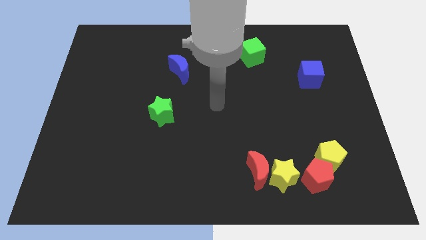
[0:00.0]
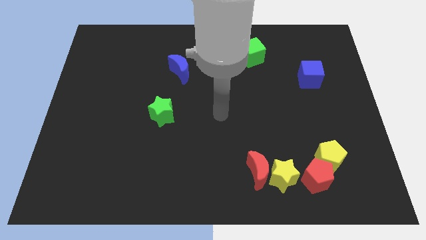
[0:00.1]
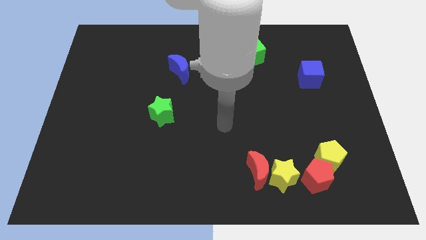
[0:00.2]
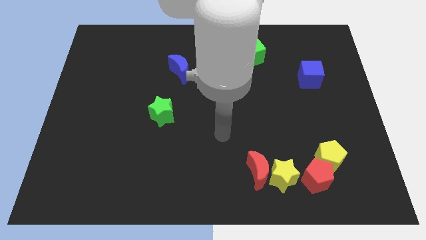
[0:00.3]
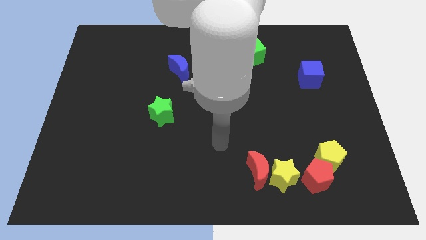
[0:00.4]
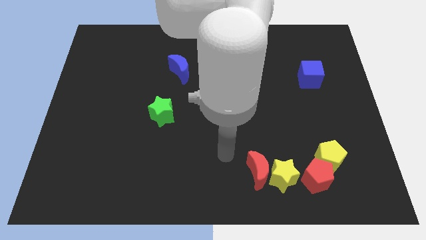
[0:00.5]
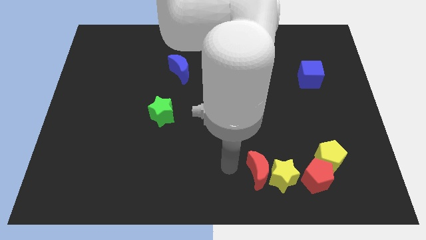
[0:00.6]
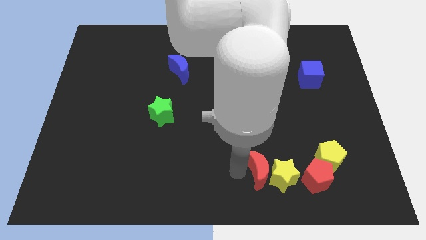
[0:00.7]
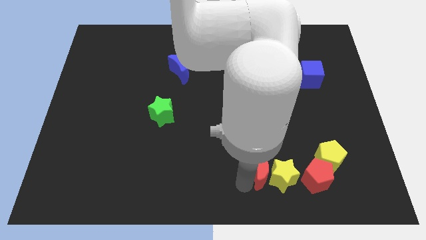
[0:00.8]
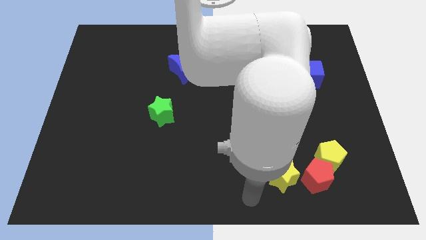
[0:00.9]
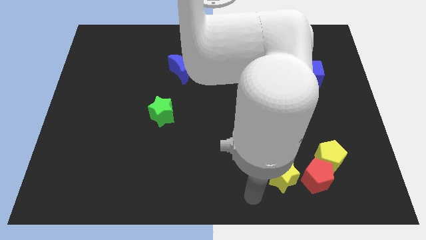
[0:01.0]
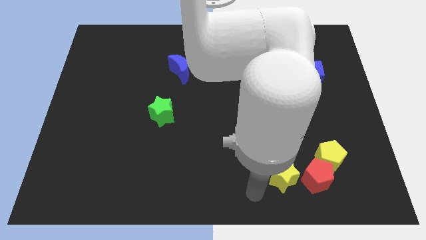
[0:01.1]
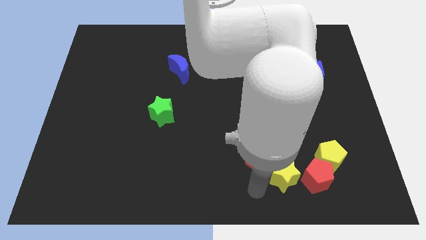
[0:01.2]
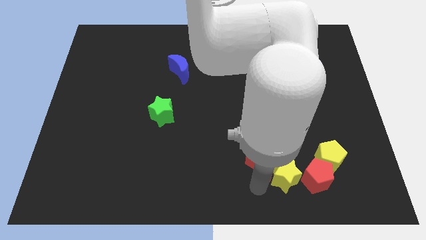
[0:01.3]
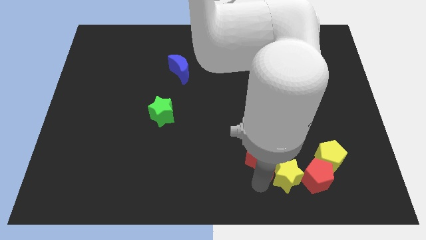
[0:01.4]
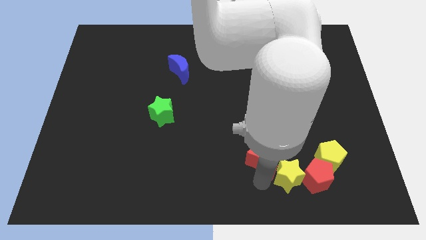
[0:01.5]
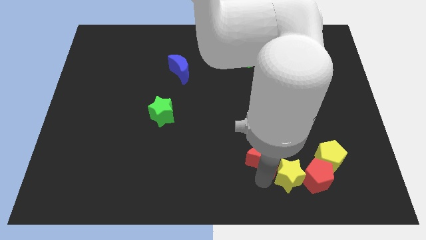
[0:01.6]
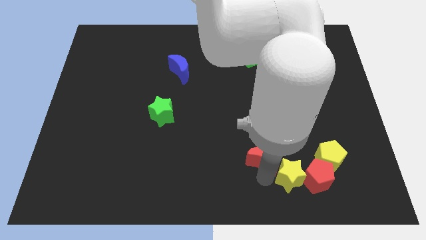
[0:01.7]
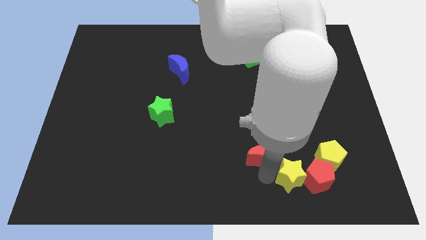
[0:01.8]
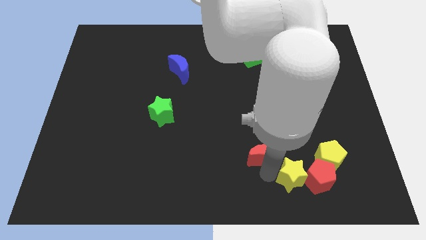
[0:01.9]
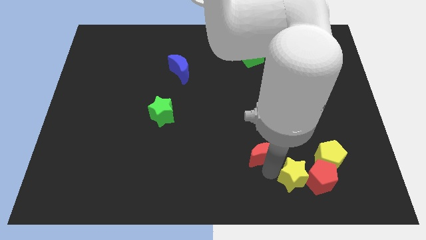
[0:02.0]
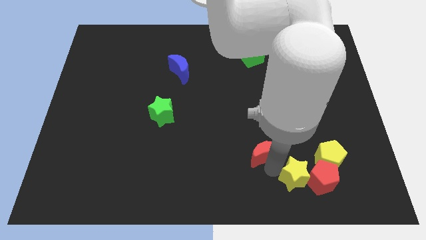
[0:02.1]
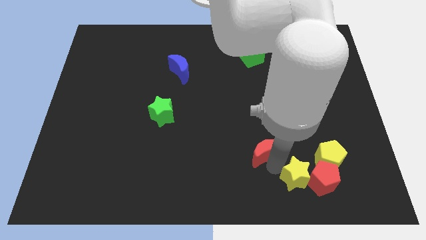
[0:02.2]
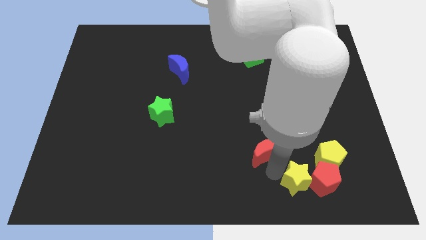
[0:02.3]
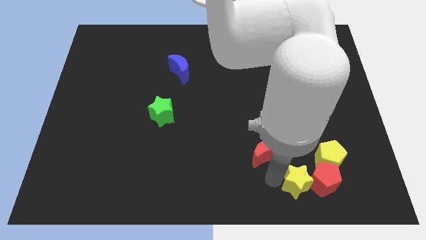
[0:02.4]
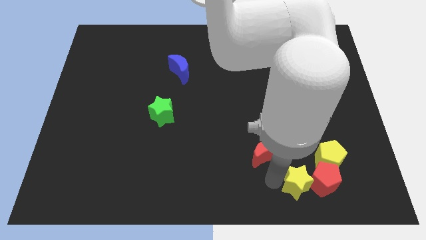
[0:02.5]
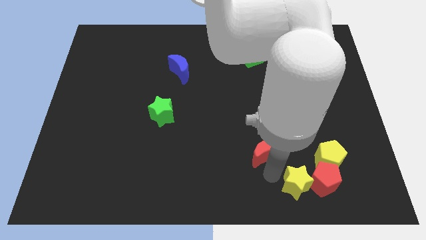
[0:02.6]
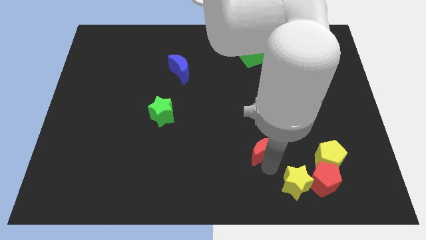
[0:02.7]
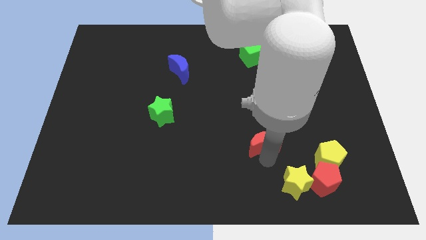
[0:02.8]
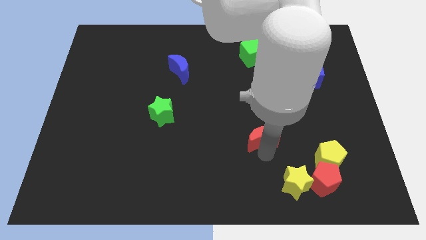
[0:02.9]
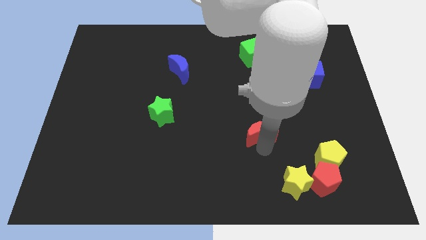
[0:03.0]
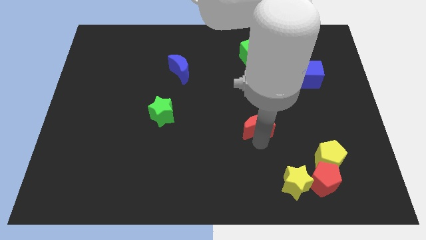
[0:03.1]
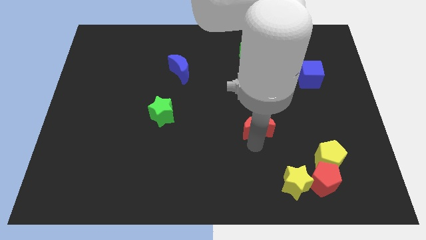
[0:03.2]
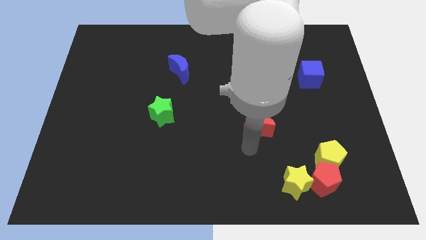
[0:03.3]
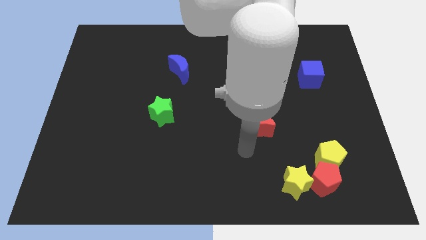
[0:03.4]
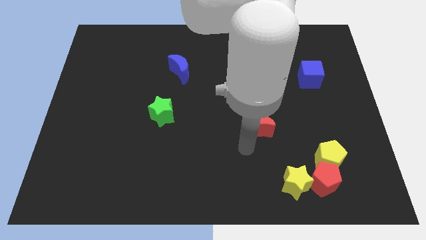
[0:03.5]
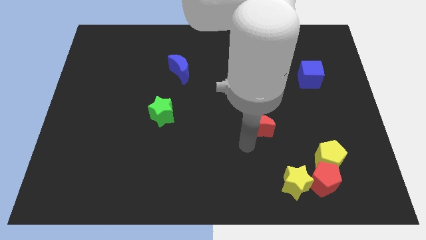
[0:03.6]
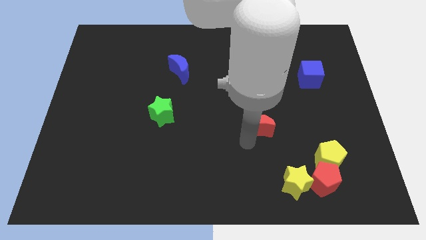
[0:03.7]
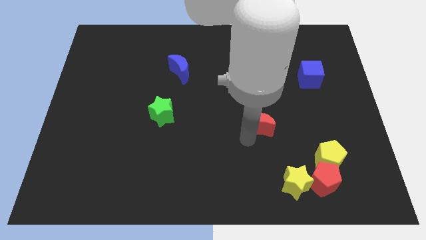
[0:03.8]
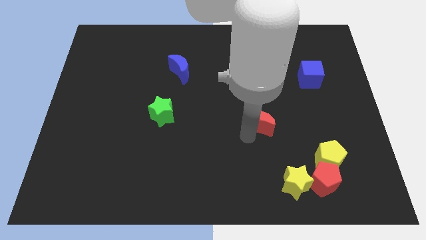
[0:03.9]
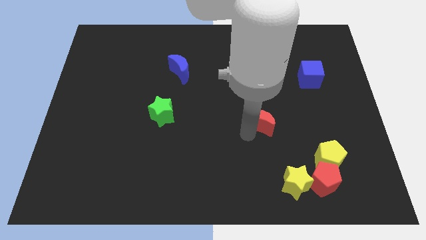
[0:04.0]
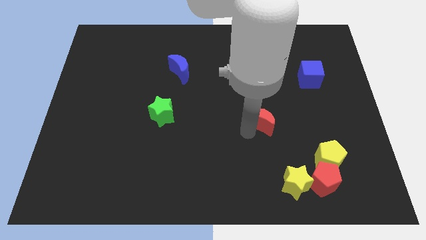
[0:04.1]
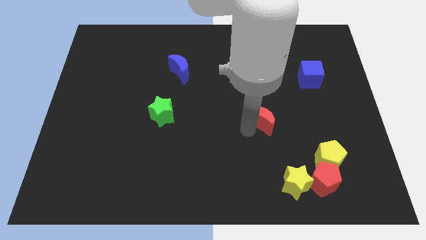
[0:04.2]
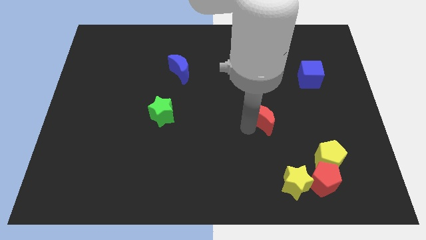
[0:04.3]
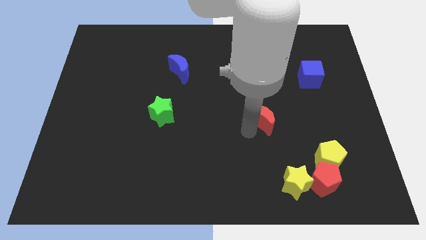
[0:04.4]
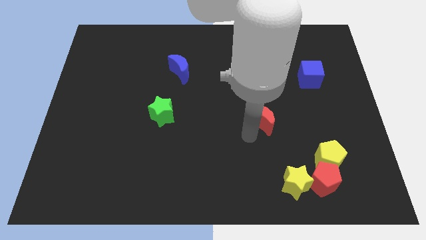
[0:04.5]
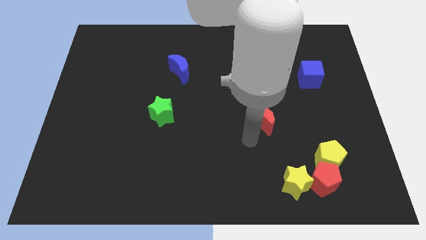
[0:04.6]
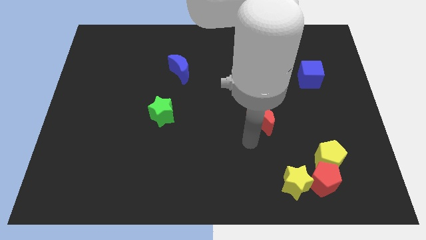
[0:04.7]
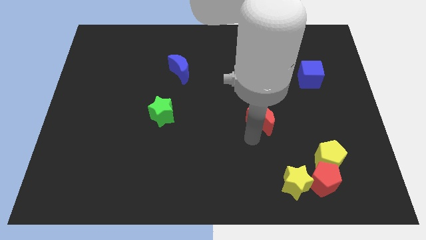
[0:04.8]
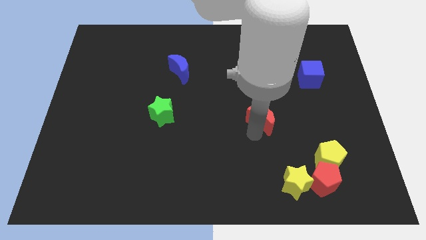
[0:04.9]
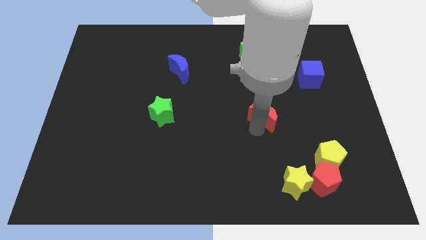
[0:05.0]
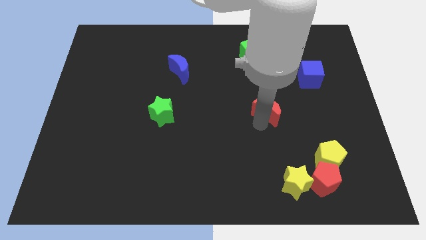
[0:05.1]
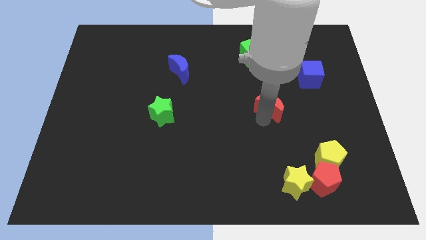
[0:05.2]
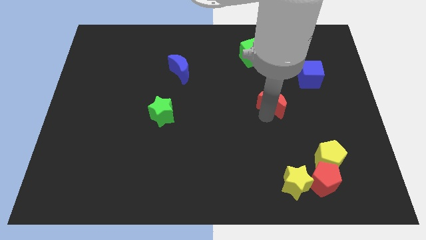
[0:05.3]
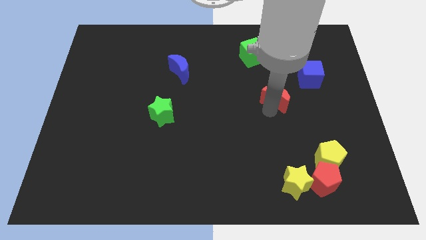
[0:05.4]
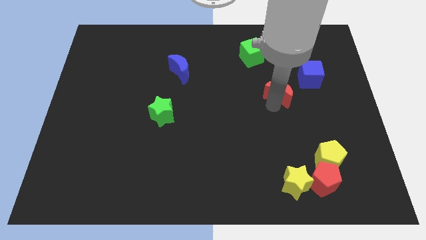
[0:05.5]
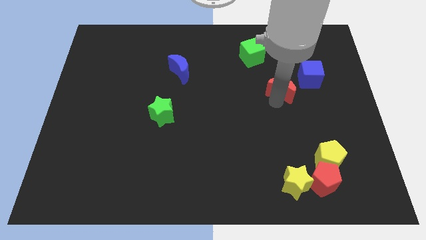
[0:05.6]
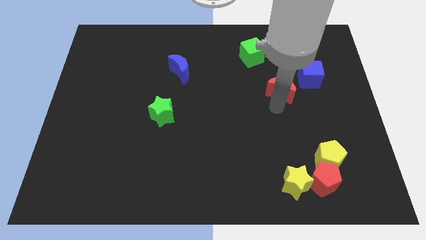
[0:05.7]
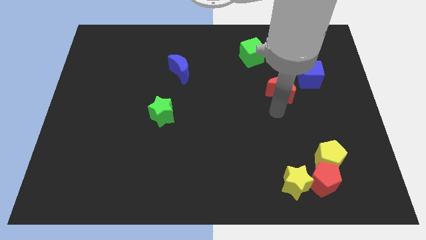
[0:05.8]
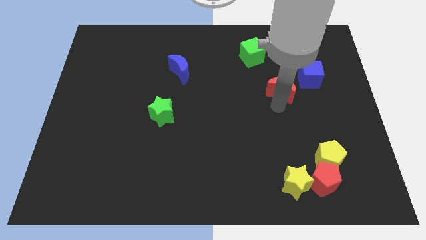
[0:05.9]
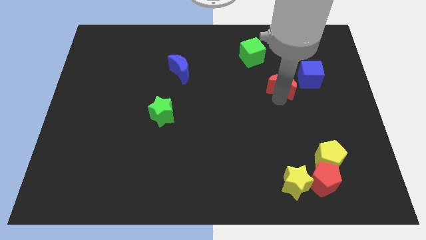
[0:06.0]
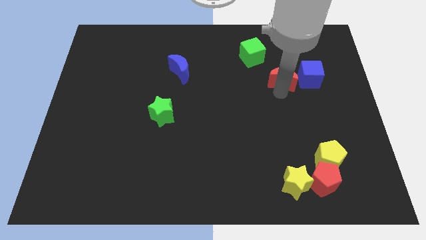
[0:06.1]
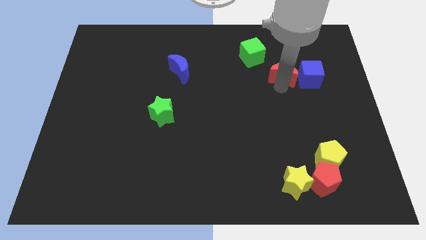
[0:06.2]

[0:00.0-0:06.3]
push the red moon to the top left side of the blue cube
